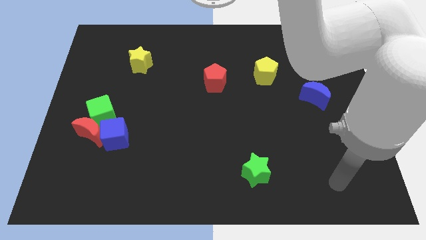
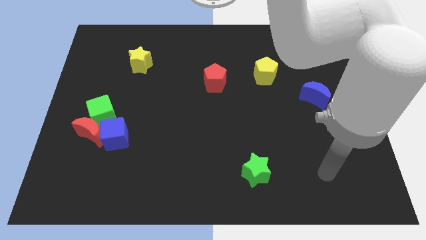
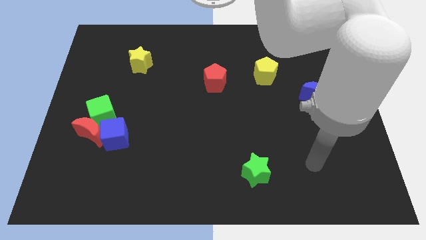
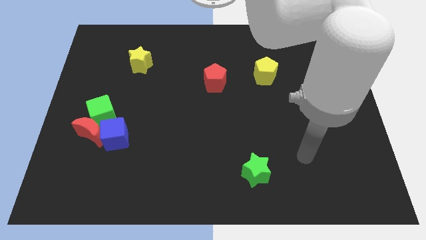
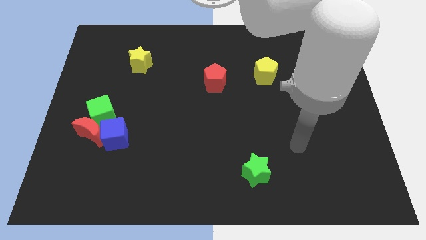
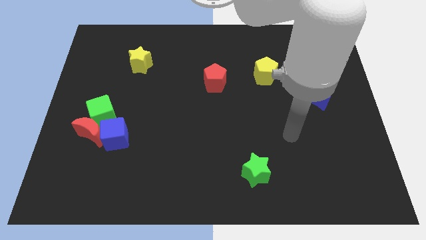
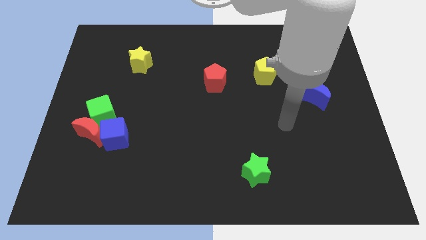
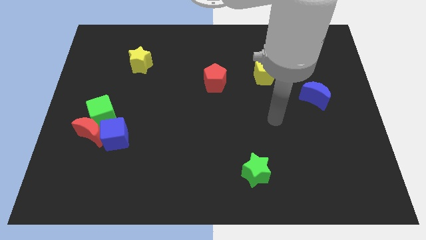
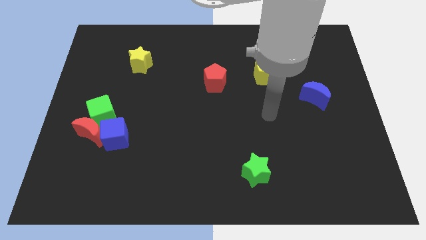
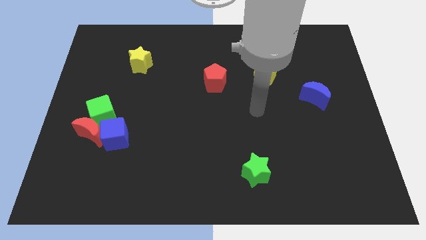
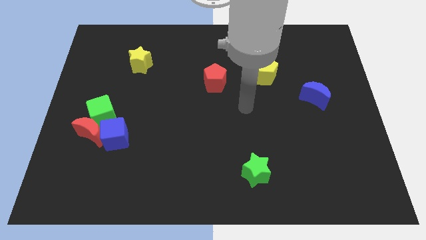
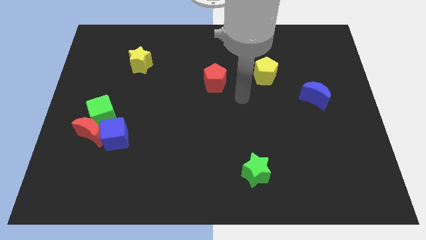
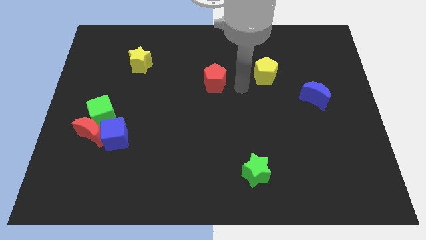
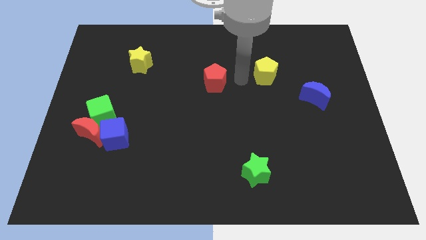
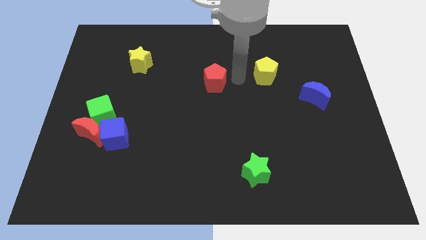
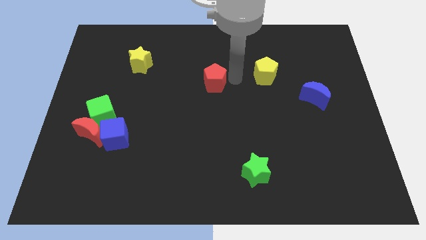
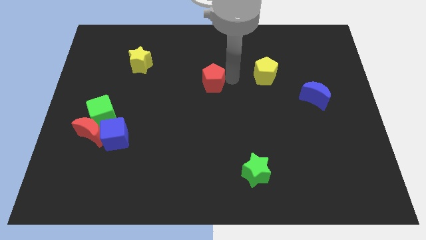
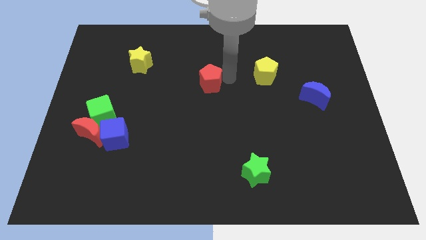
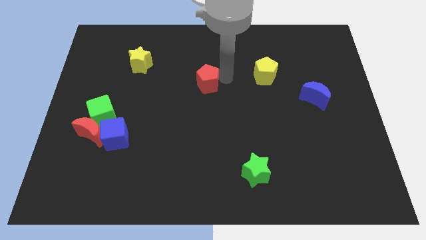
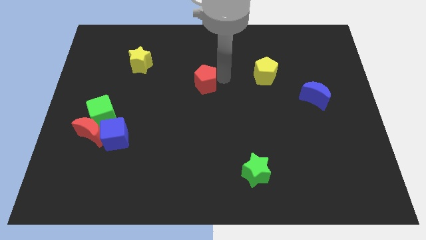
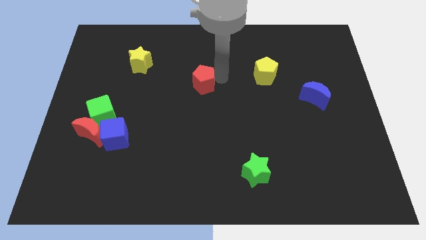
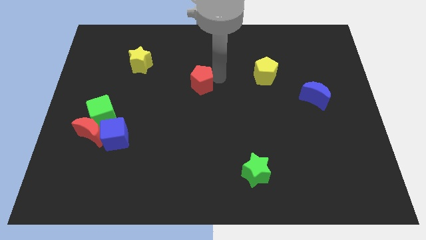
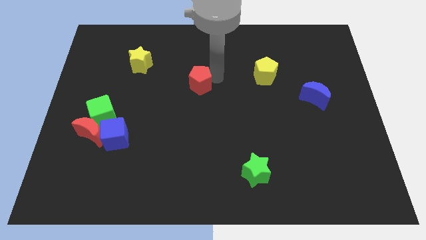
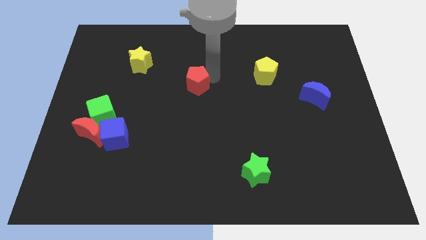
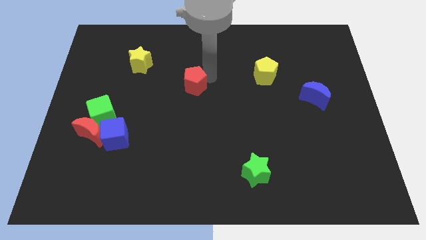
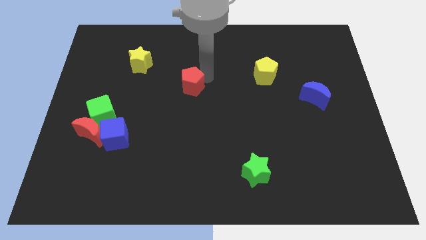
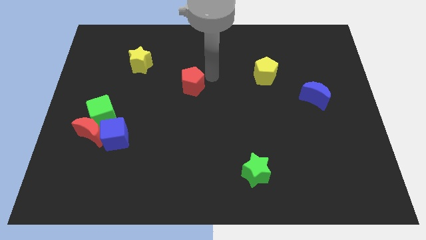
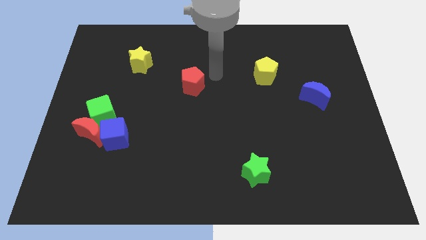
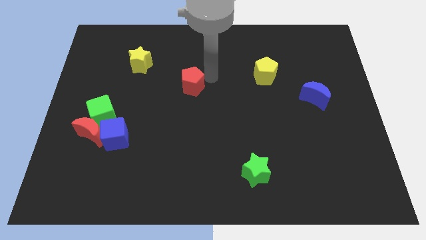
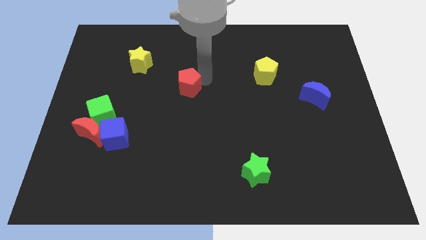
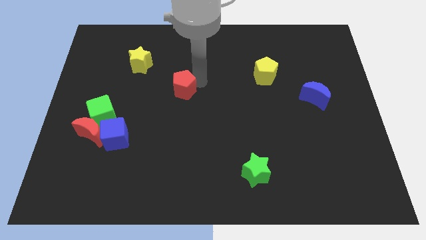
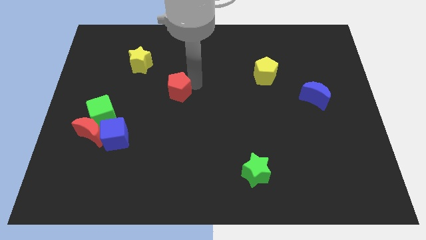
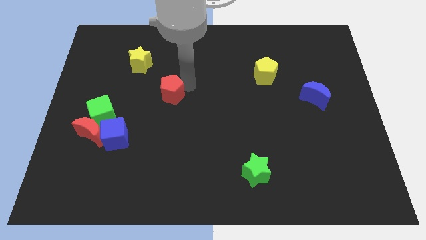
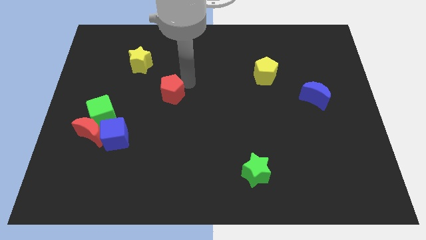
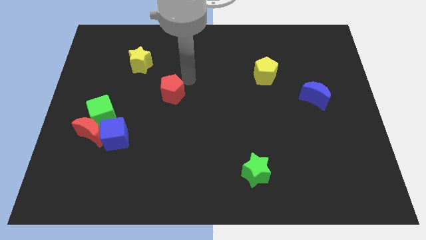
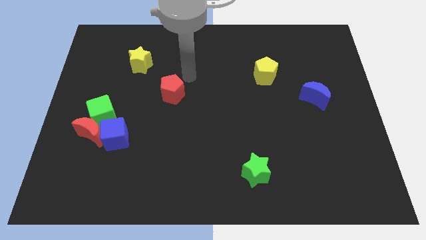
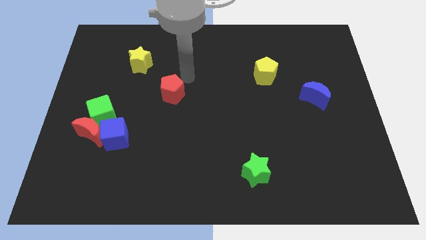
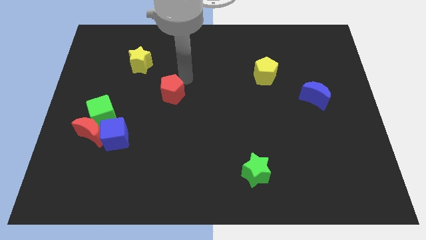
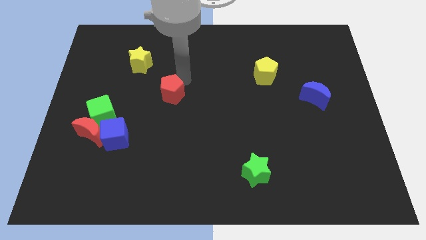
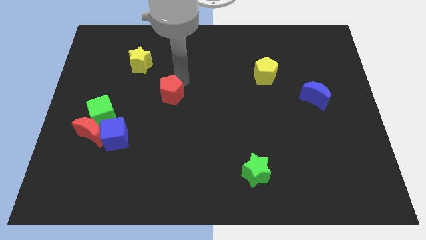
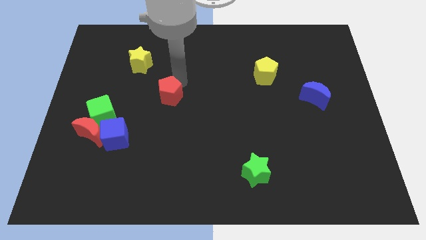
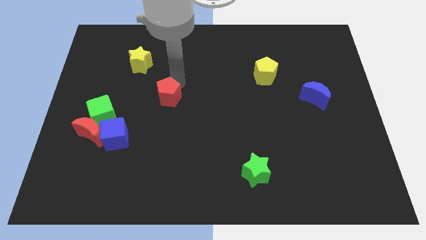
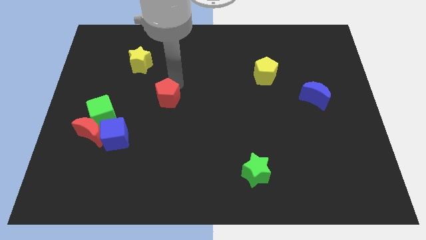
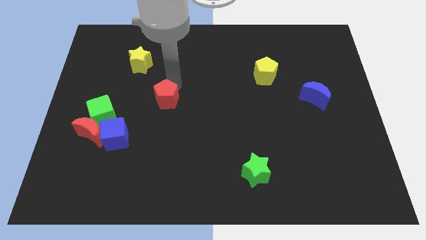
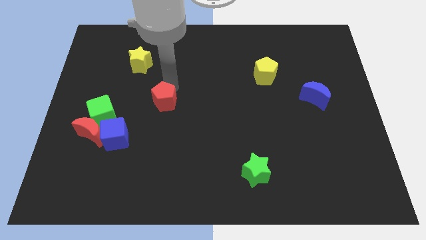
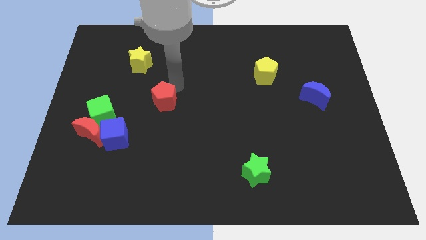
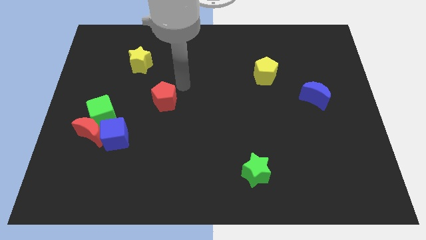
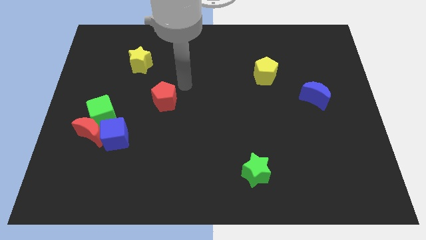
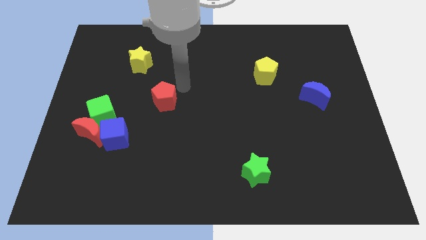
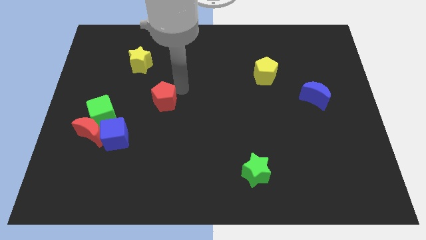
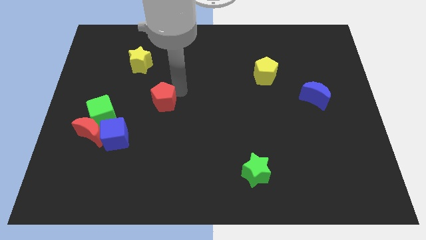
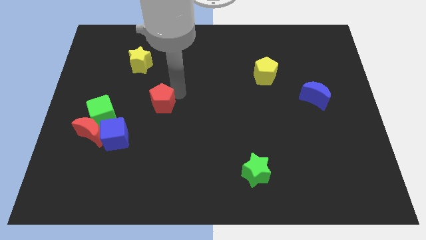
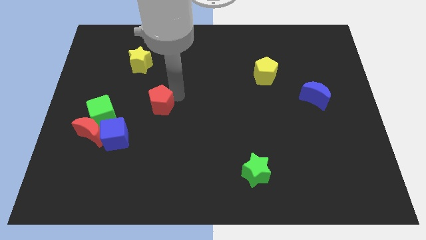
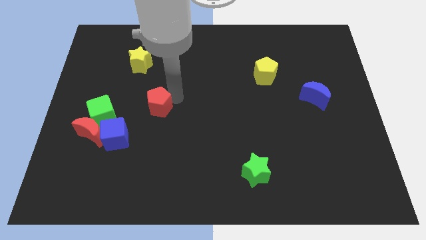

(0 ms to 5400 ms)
put the red pentagon to the top right side of the blue cube

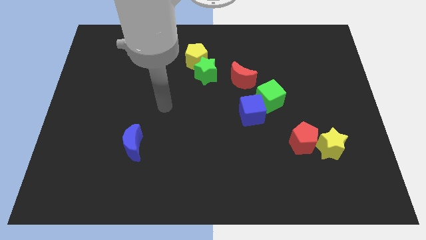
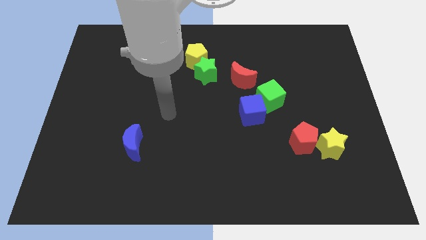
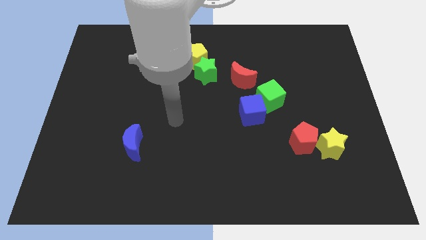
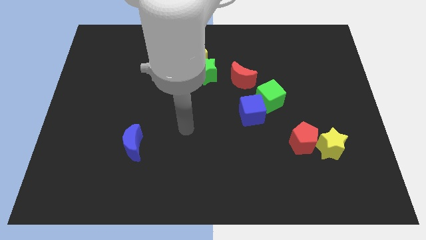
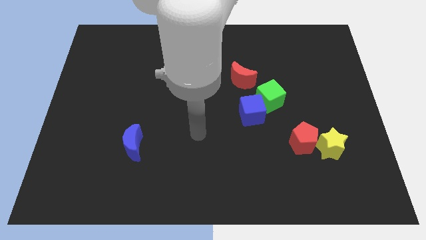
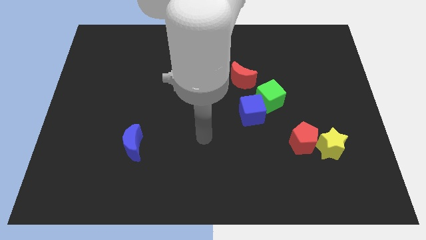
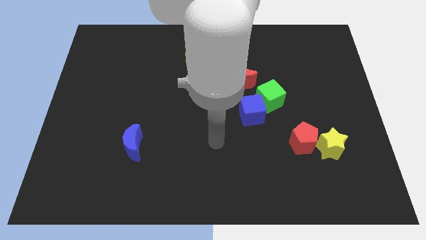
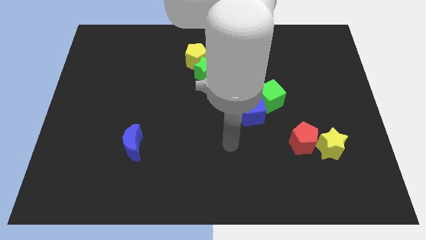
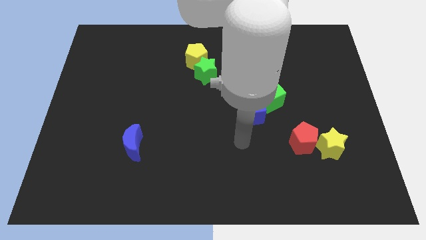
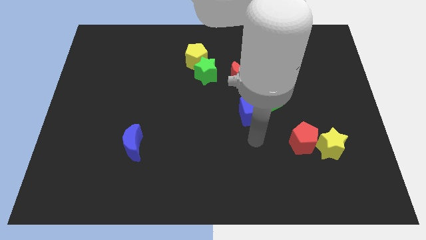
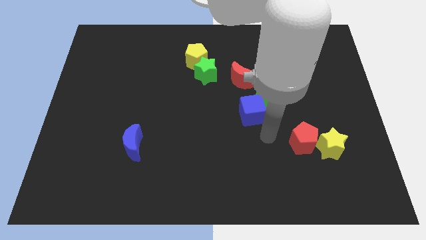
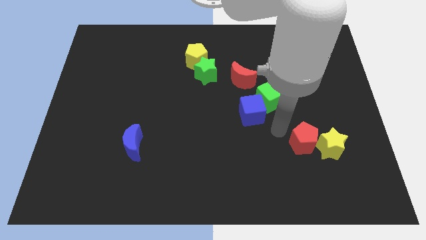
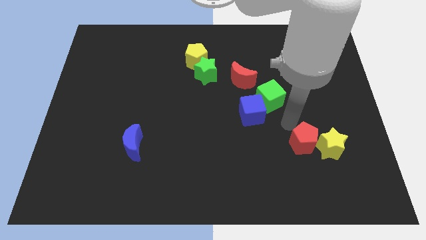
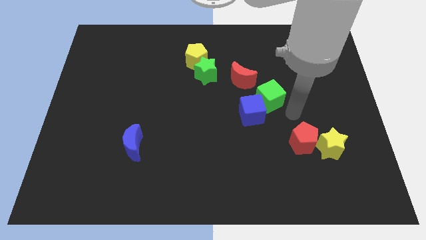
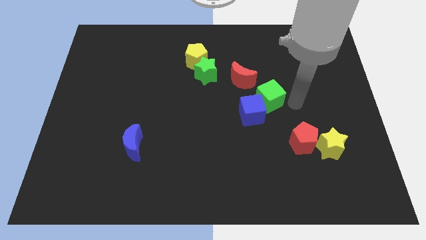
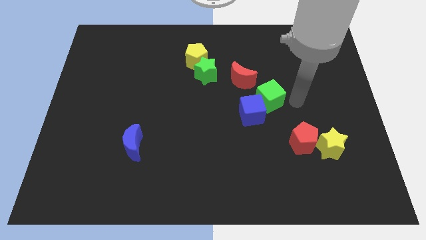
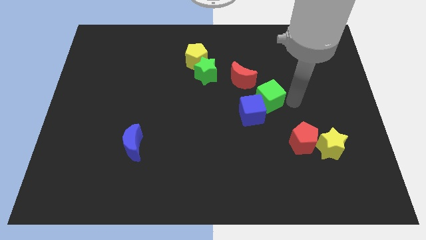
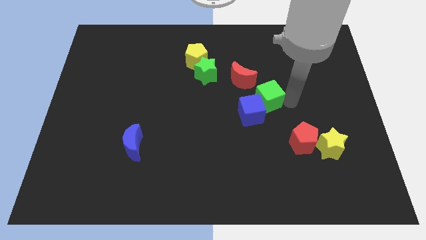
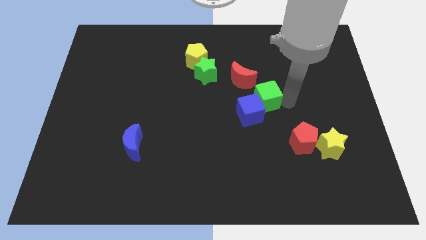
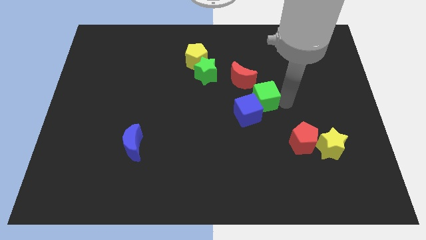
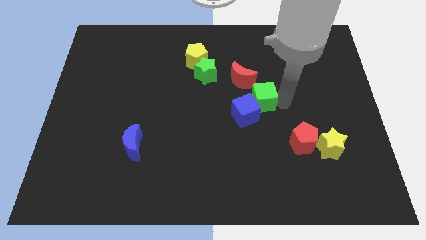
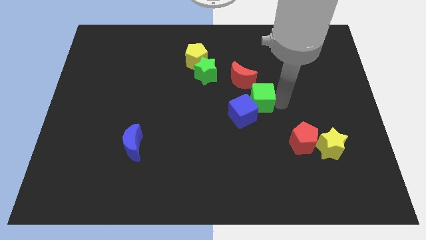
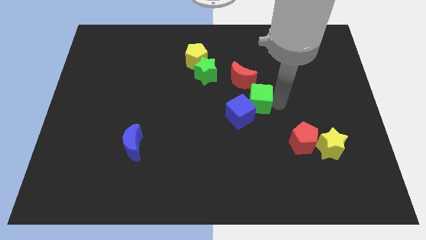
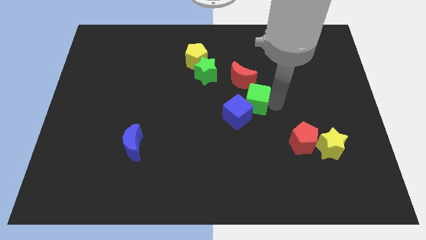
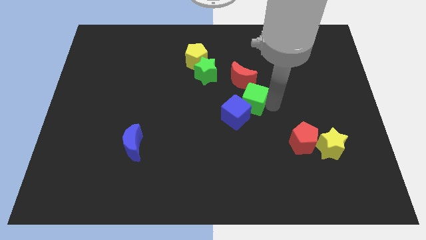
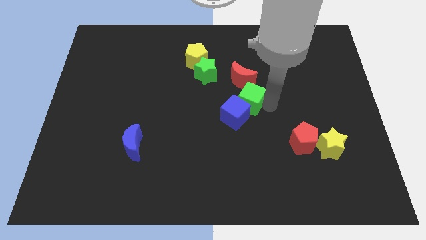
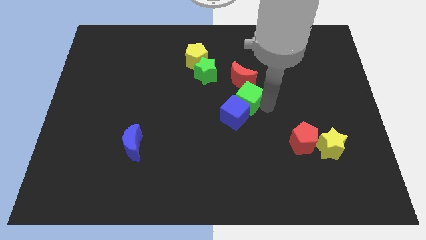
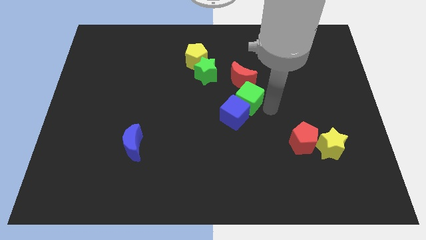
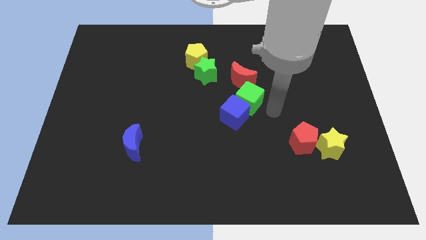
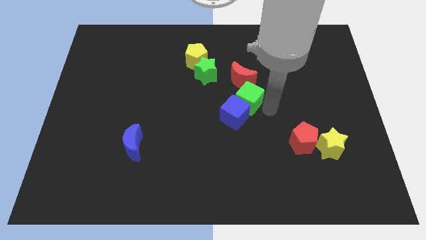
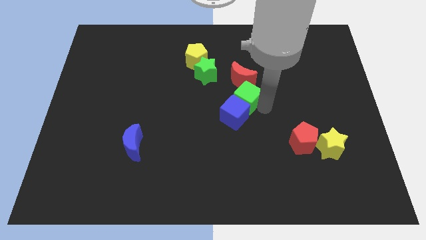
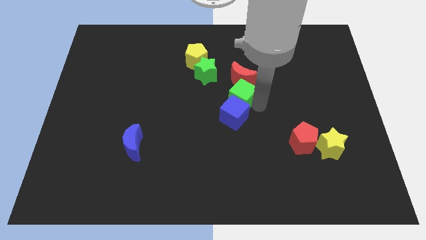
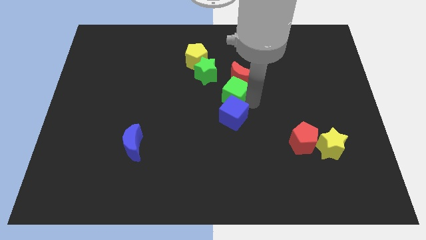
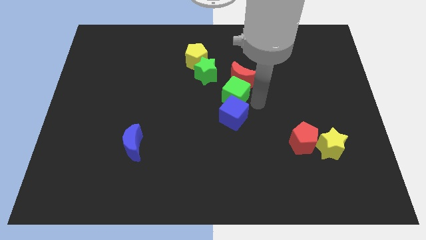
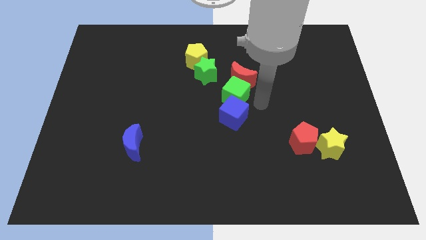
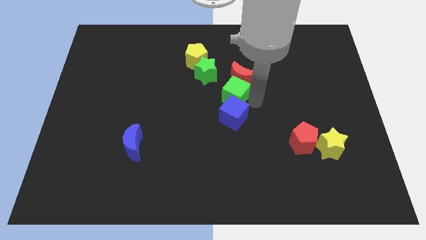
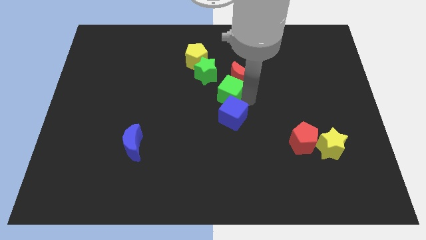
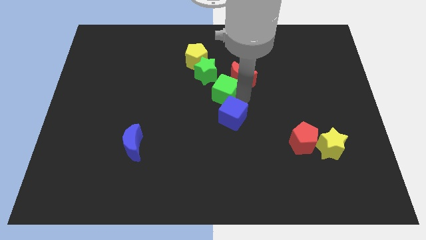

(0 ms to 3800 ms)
put the green cube left of the red moon
